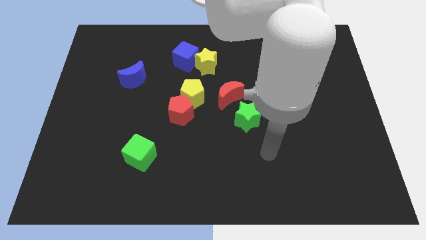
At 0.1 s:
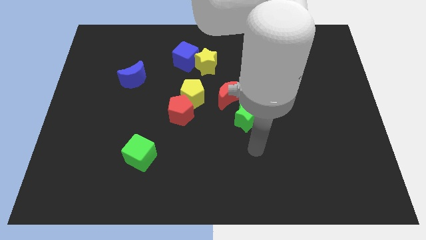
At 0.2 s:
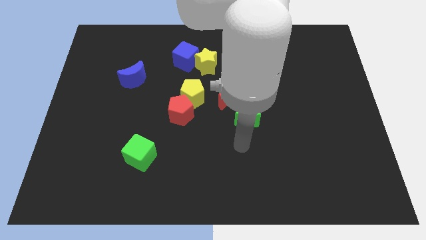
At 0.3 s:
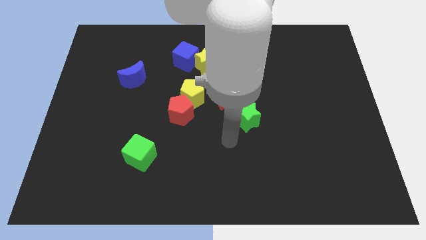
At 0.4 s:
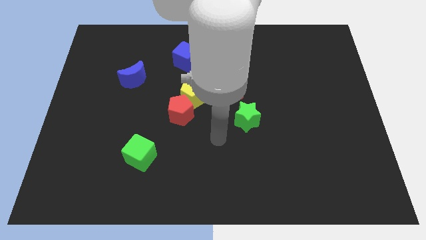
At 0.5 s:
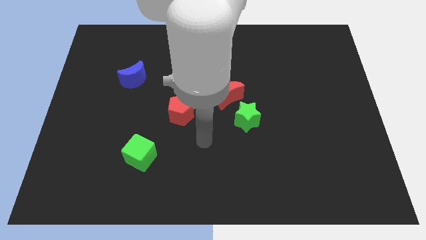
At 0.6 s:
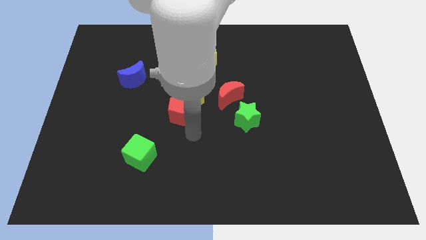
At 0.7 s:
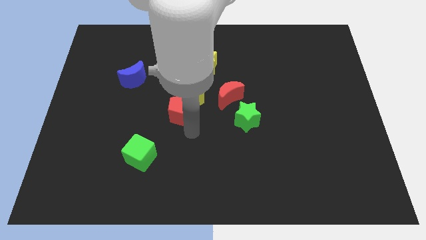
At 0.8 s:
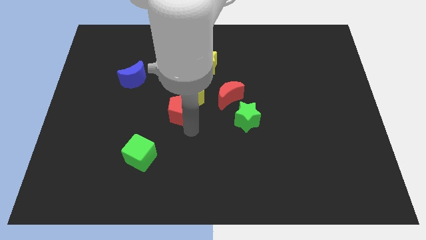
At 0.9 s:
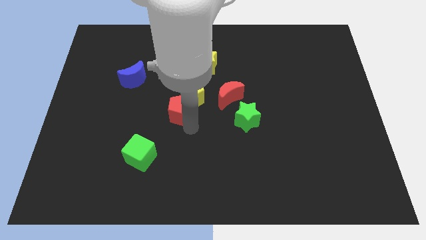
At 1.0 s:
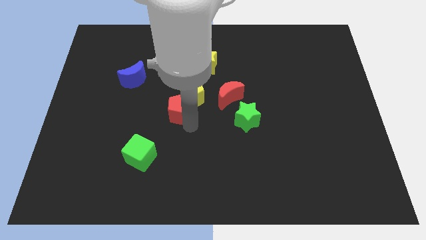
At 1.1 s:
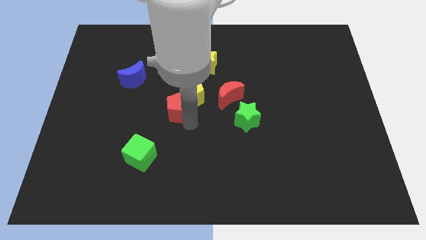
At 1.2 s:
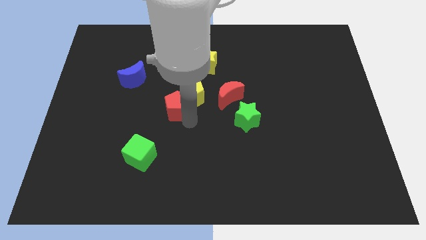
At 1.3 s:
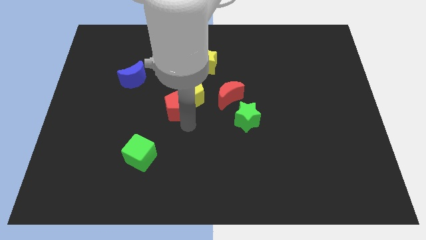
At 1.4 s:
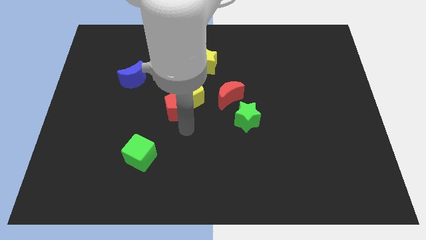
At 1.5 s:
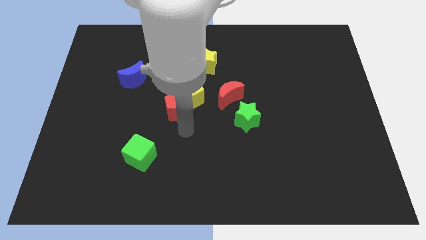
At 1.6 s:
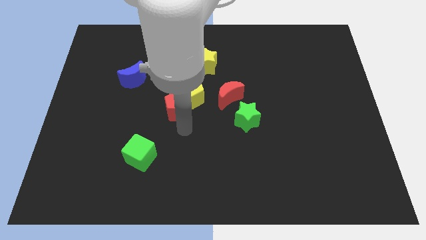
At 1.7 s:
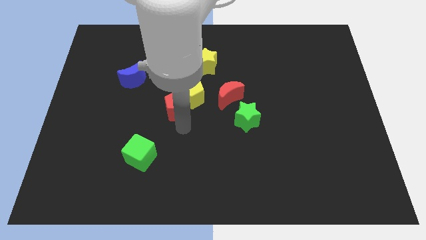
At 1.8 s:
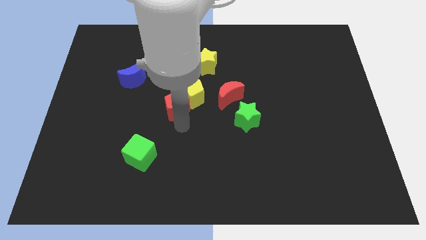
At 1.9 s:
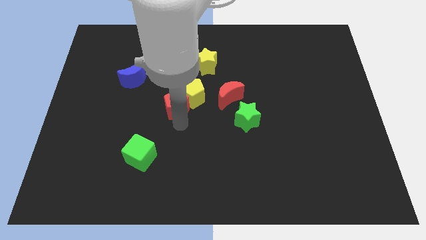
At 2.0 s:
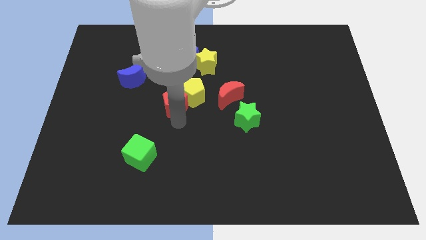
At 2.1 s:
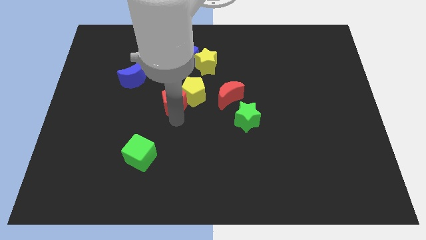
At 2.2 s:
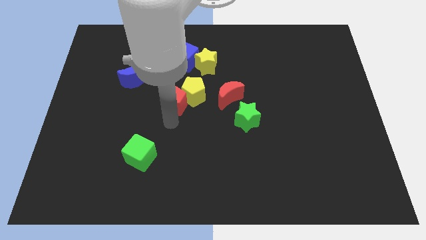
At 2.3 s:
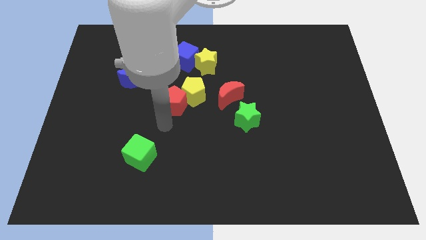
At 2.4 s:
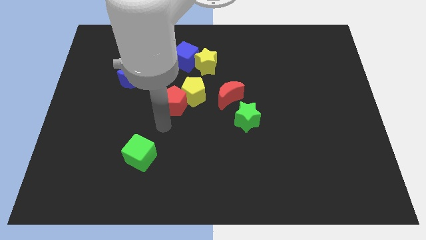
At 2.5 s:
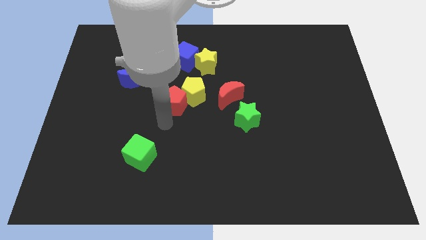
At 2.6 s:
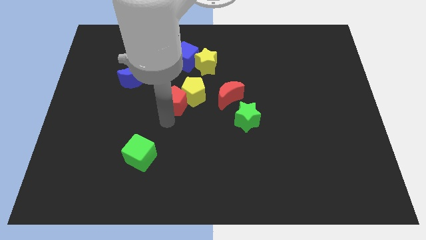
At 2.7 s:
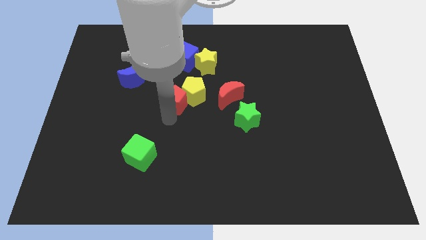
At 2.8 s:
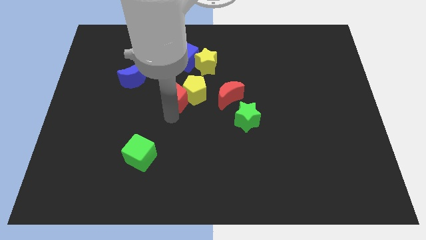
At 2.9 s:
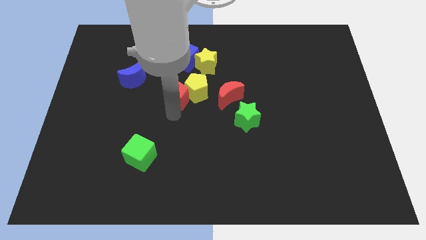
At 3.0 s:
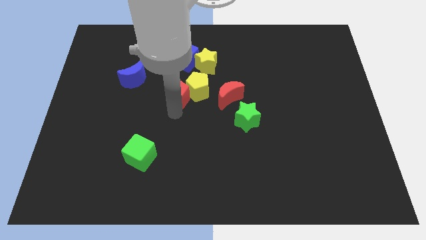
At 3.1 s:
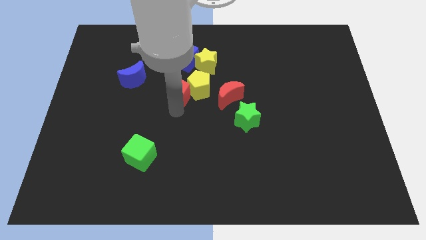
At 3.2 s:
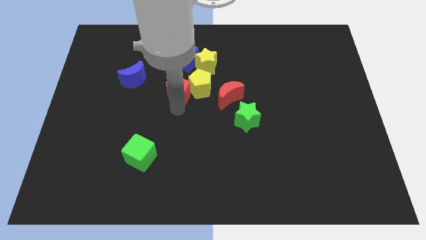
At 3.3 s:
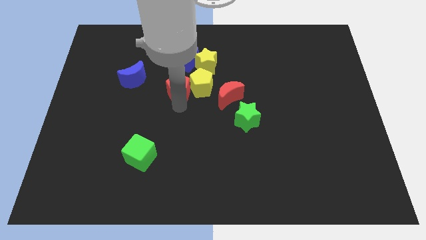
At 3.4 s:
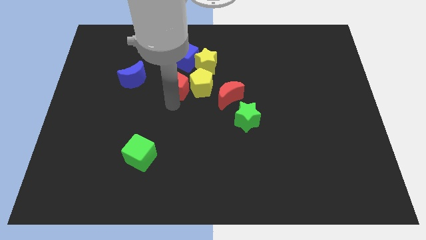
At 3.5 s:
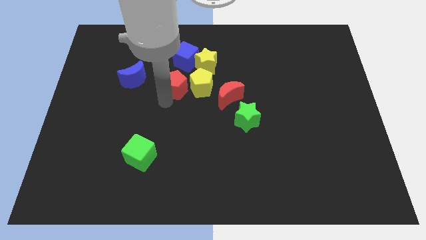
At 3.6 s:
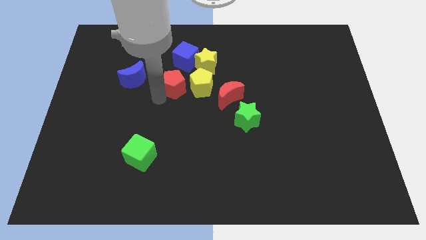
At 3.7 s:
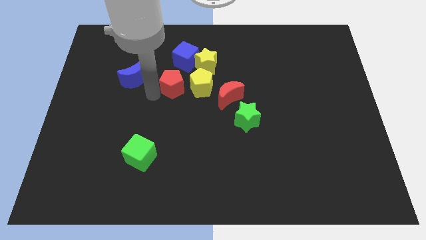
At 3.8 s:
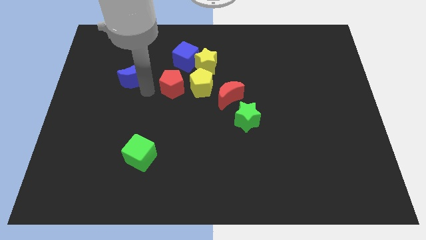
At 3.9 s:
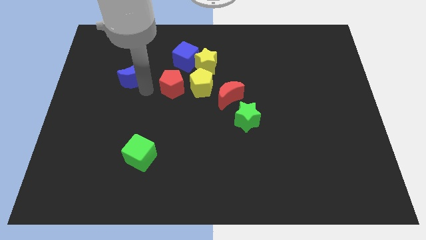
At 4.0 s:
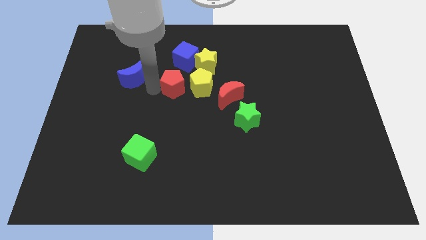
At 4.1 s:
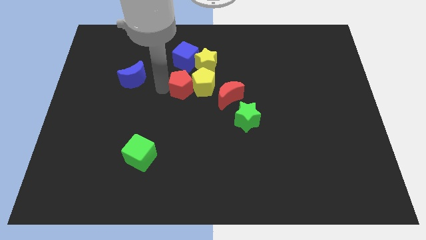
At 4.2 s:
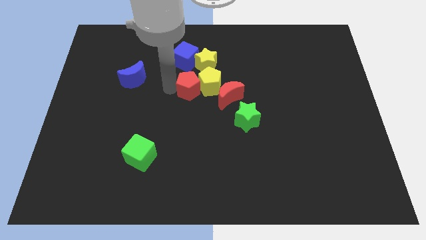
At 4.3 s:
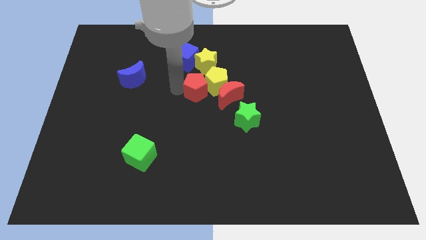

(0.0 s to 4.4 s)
slide the red pentagon a little up and right diagonally

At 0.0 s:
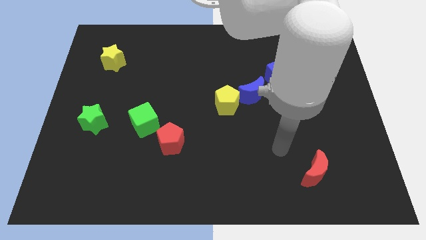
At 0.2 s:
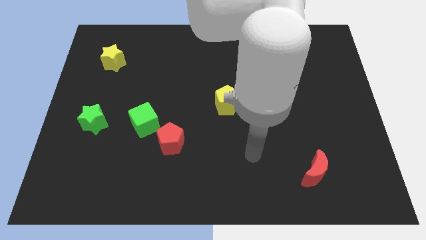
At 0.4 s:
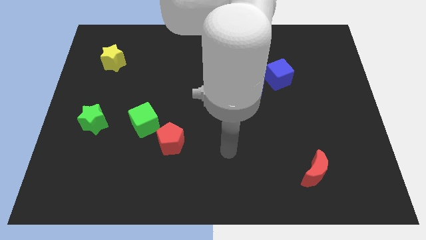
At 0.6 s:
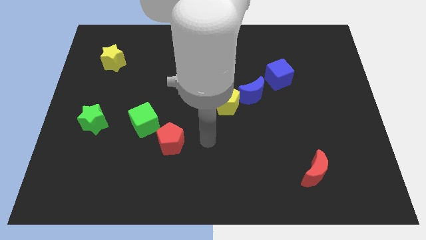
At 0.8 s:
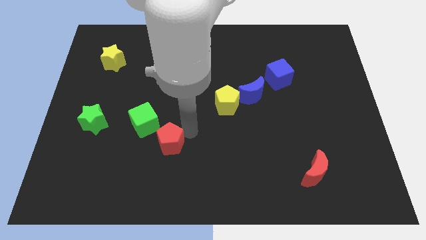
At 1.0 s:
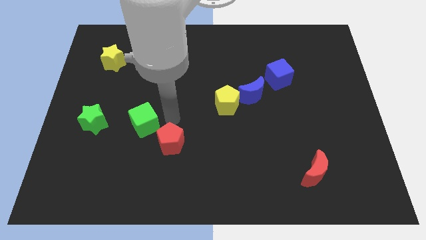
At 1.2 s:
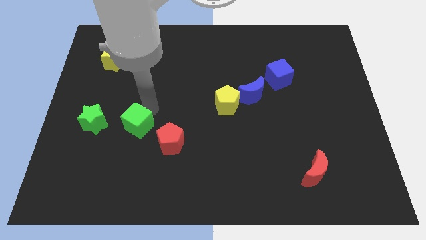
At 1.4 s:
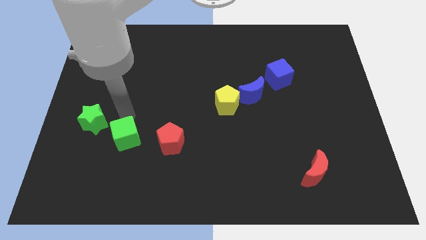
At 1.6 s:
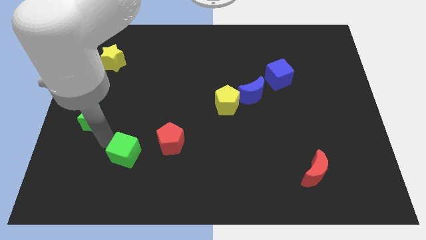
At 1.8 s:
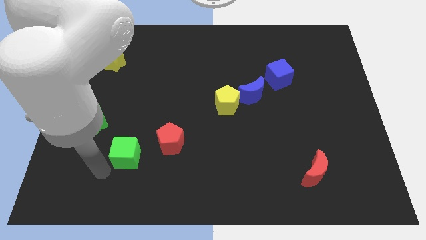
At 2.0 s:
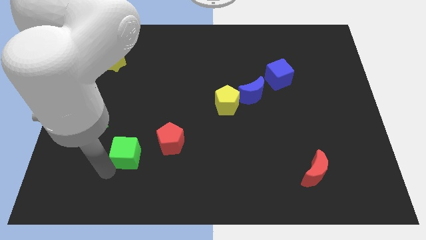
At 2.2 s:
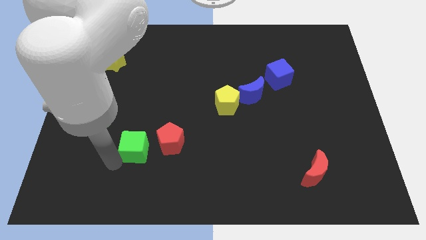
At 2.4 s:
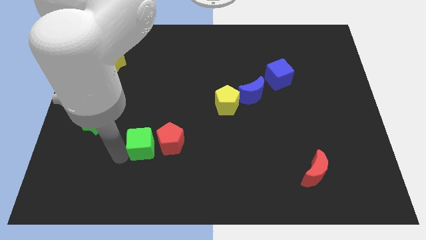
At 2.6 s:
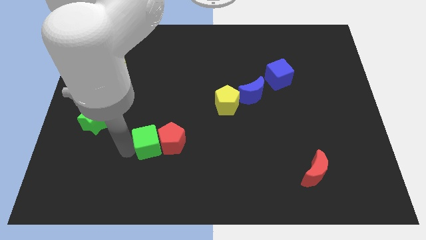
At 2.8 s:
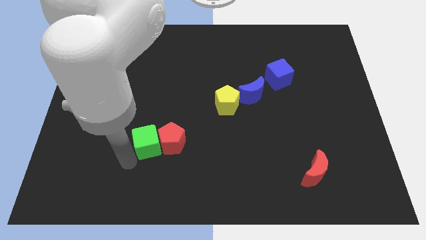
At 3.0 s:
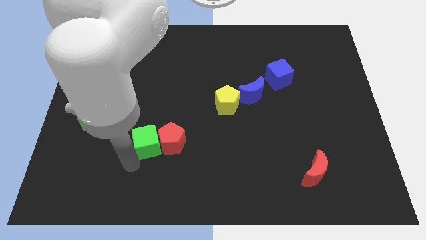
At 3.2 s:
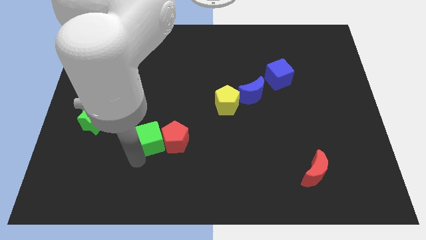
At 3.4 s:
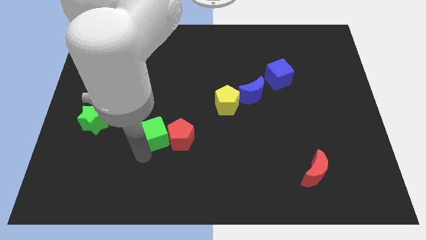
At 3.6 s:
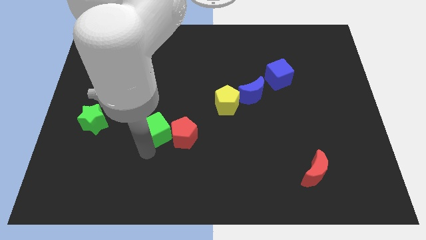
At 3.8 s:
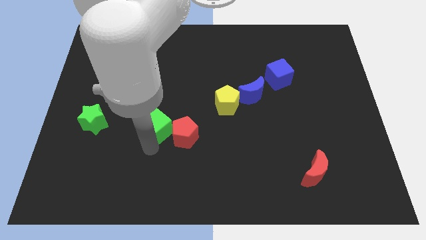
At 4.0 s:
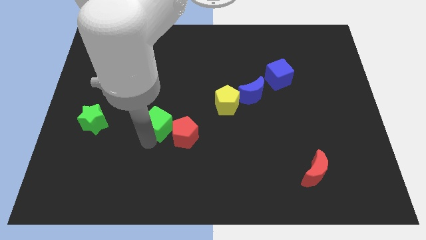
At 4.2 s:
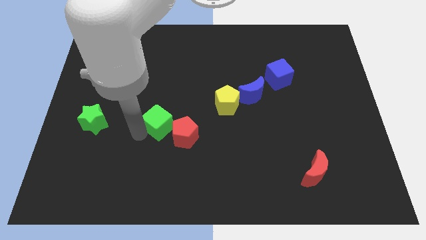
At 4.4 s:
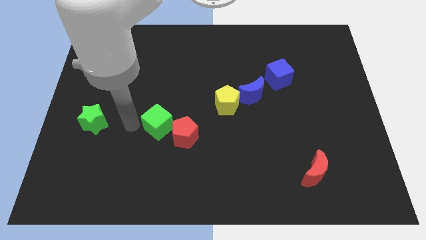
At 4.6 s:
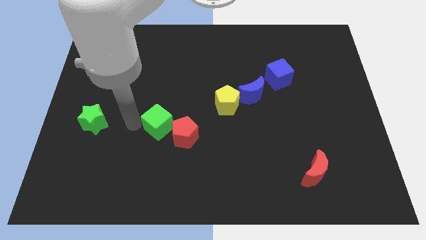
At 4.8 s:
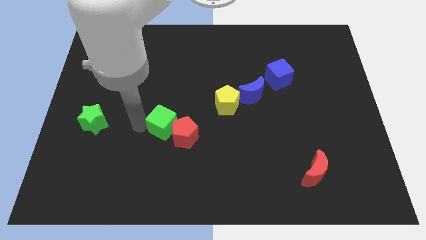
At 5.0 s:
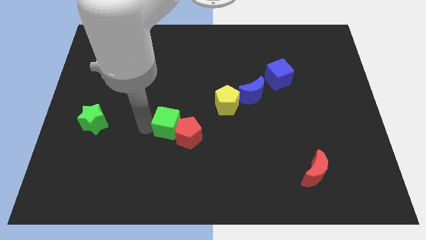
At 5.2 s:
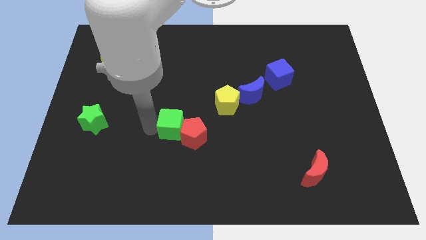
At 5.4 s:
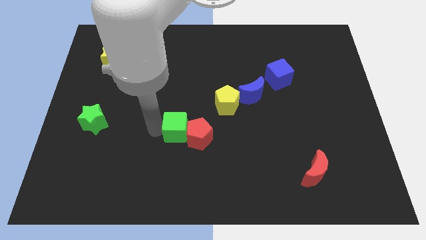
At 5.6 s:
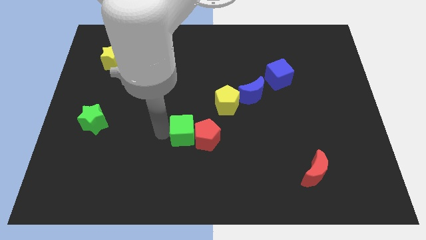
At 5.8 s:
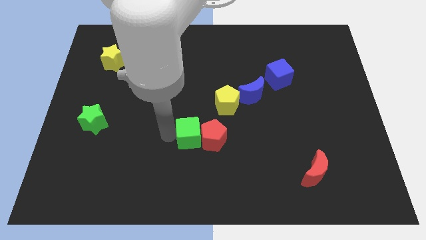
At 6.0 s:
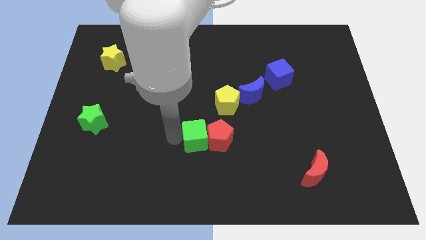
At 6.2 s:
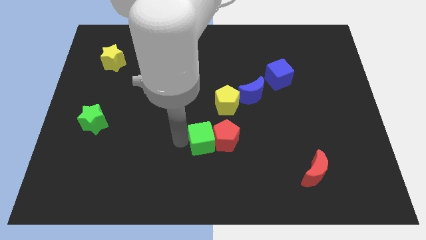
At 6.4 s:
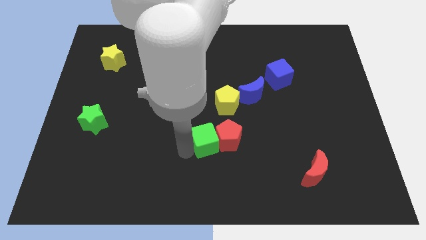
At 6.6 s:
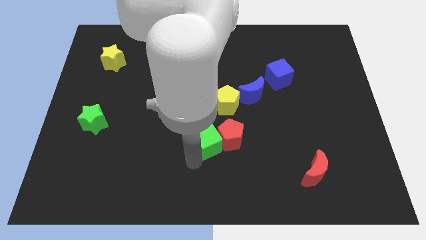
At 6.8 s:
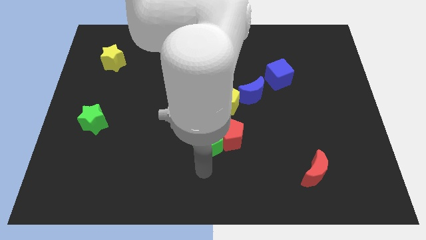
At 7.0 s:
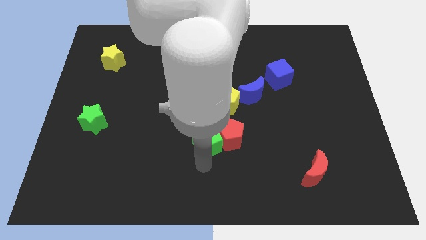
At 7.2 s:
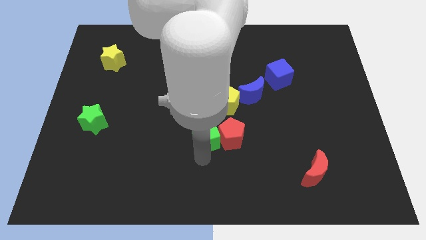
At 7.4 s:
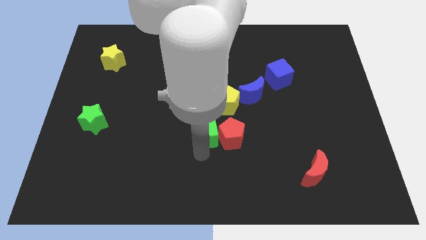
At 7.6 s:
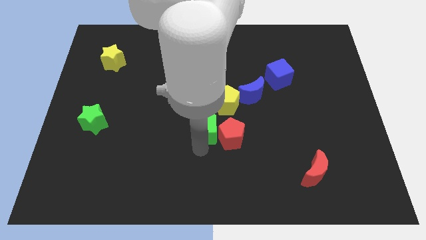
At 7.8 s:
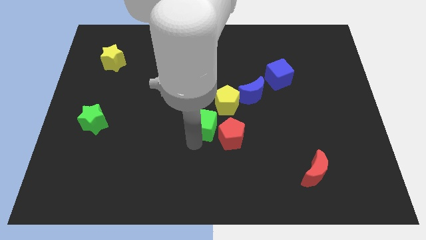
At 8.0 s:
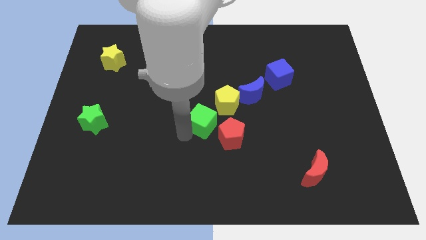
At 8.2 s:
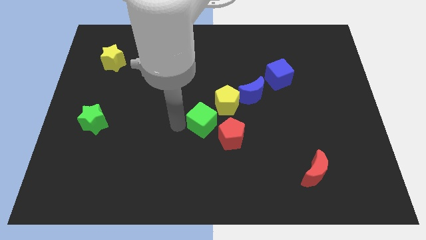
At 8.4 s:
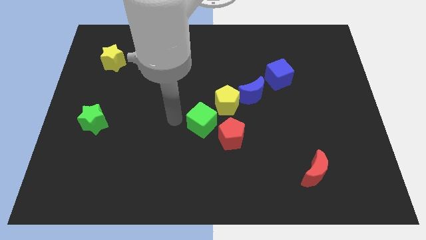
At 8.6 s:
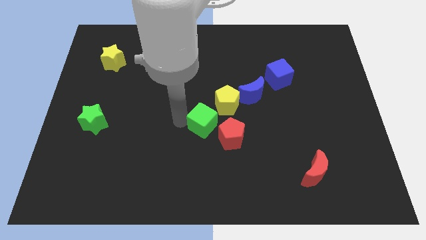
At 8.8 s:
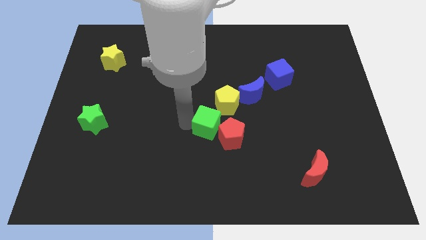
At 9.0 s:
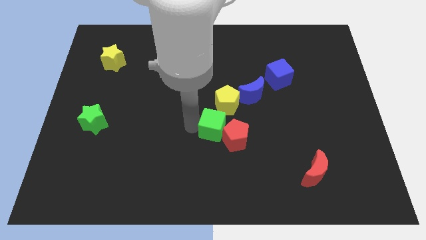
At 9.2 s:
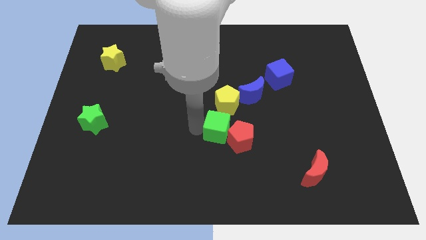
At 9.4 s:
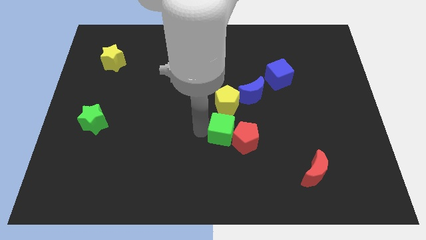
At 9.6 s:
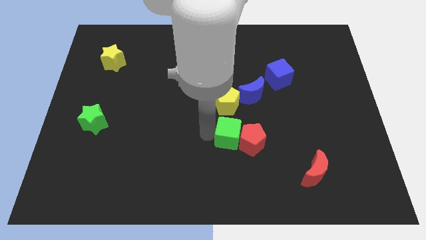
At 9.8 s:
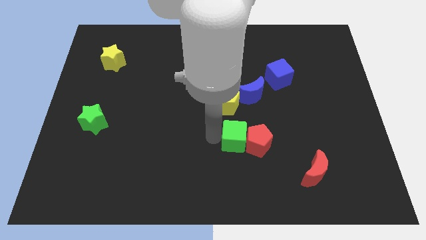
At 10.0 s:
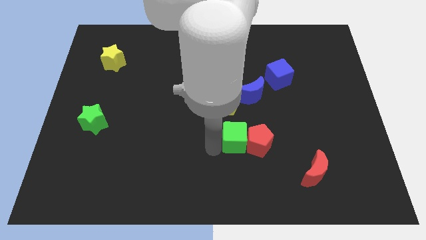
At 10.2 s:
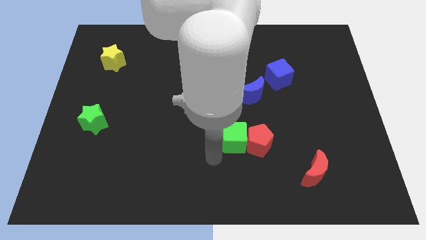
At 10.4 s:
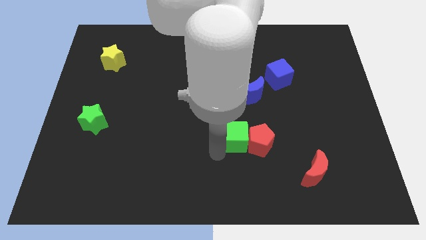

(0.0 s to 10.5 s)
push the green cube right
